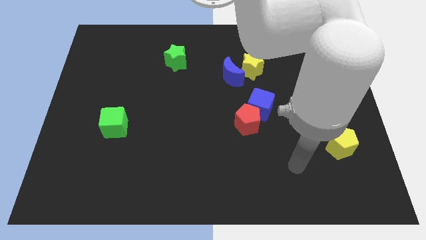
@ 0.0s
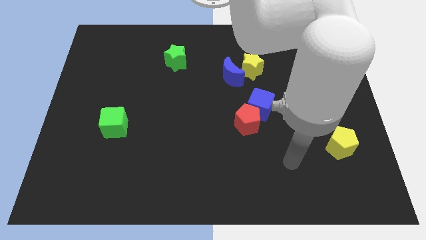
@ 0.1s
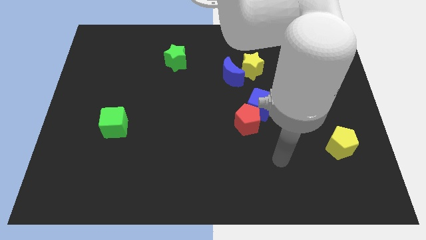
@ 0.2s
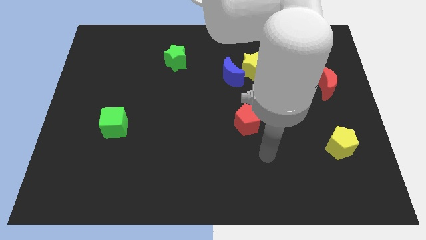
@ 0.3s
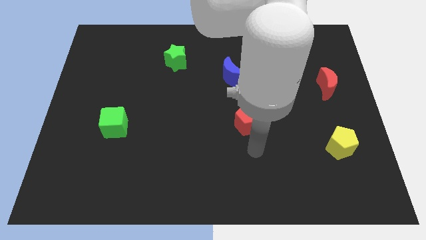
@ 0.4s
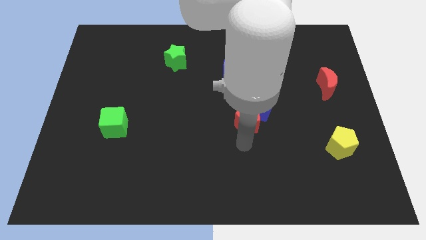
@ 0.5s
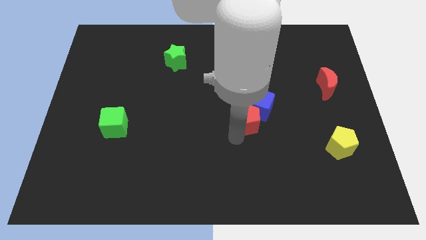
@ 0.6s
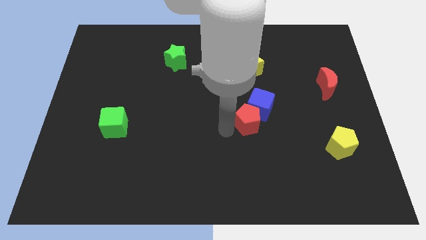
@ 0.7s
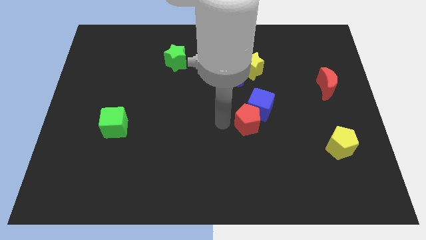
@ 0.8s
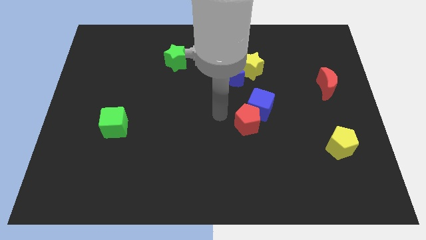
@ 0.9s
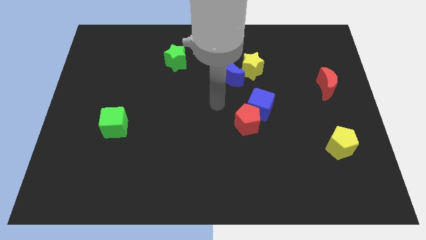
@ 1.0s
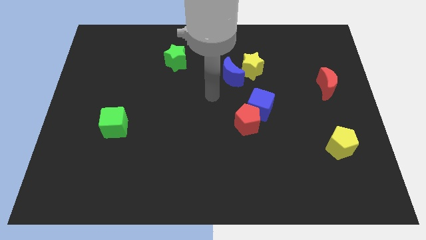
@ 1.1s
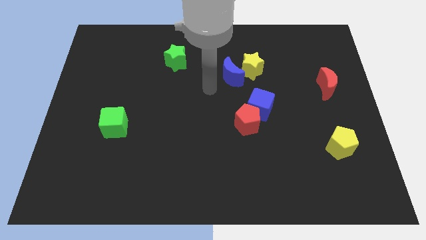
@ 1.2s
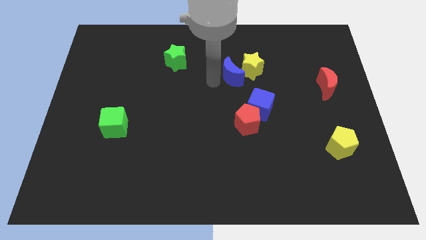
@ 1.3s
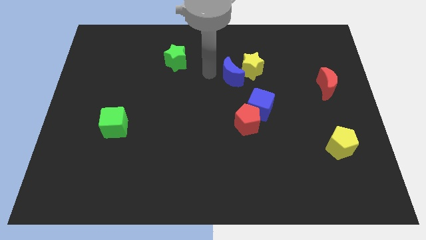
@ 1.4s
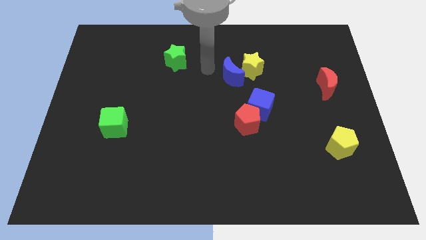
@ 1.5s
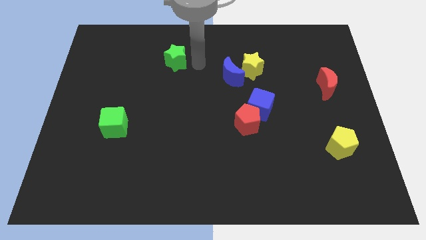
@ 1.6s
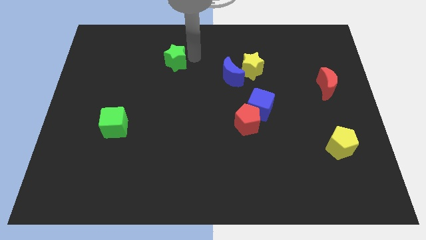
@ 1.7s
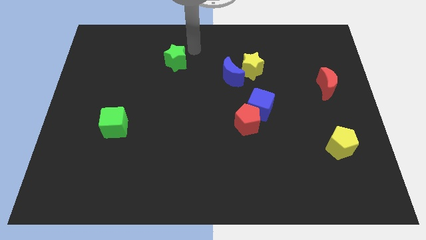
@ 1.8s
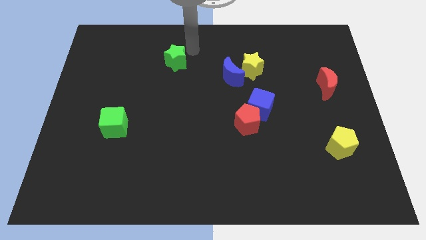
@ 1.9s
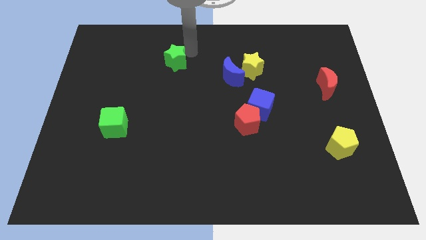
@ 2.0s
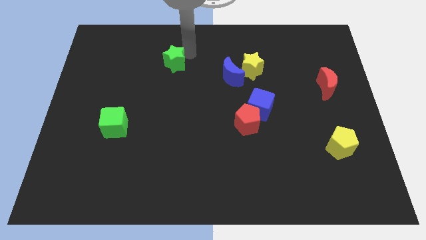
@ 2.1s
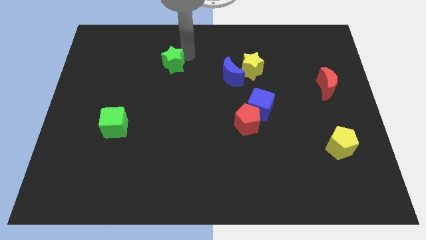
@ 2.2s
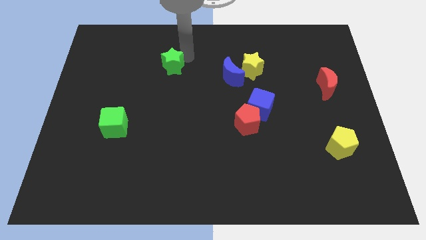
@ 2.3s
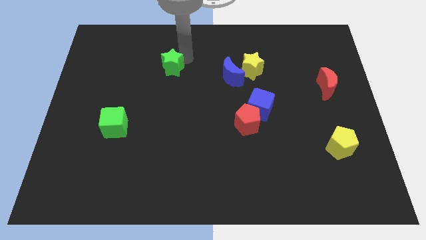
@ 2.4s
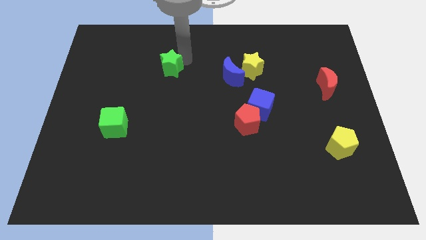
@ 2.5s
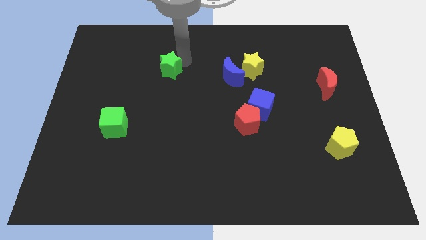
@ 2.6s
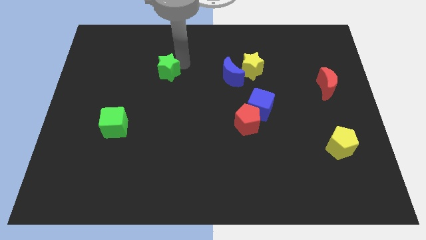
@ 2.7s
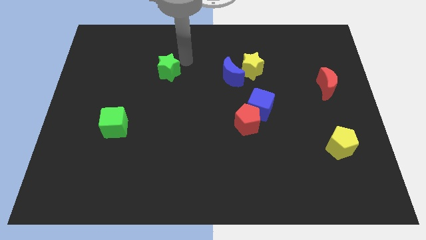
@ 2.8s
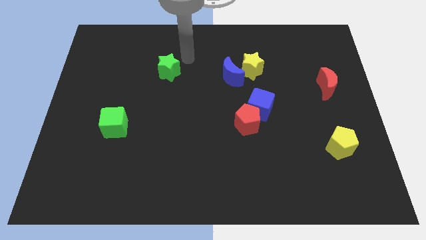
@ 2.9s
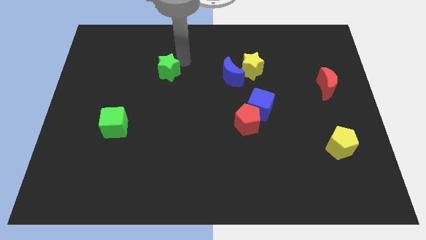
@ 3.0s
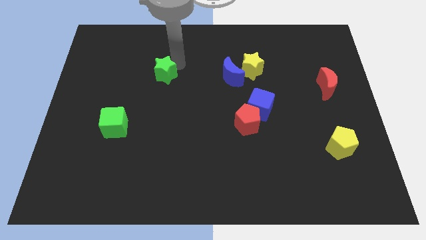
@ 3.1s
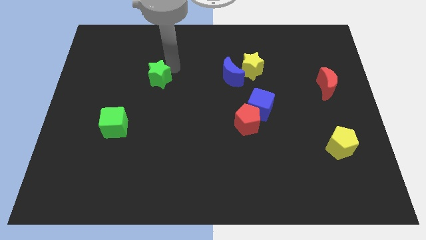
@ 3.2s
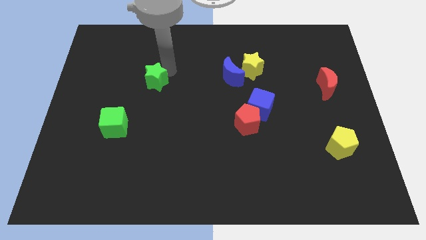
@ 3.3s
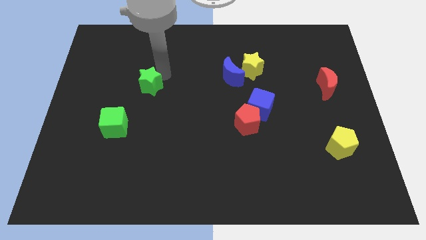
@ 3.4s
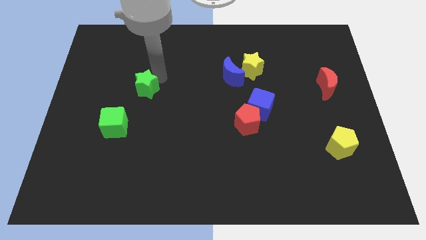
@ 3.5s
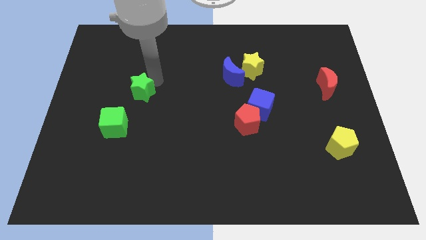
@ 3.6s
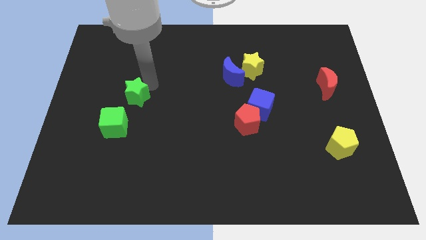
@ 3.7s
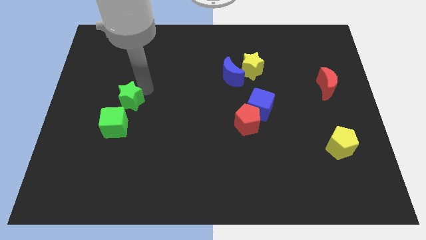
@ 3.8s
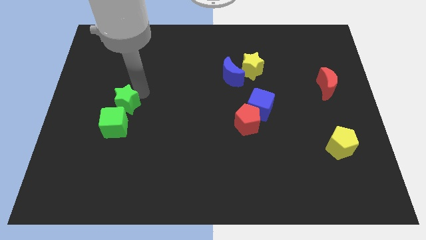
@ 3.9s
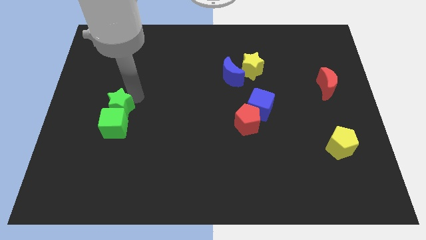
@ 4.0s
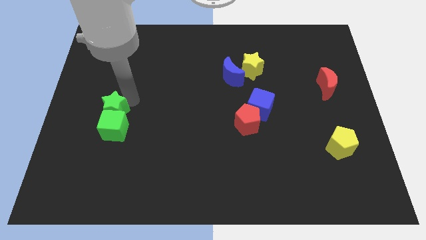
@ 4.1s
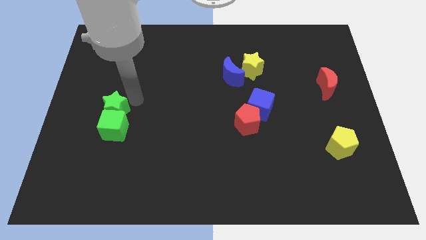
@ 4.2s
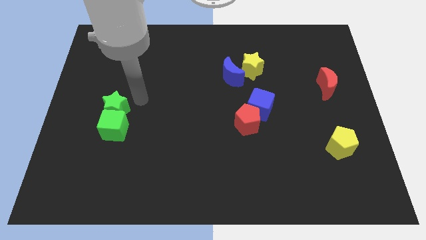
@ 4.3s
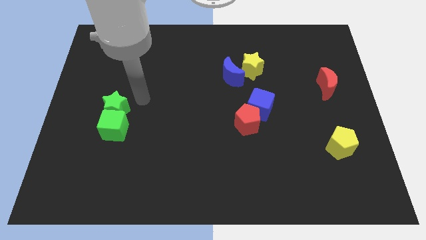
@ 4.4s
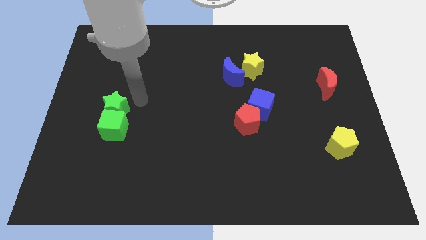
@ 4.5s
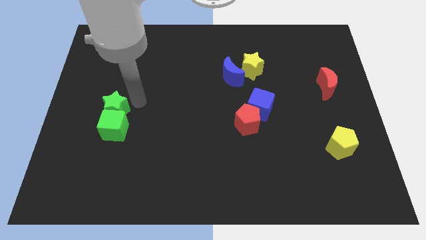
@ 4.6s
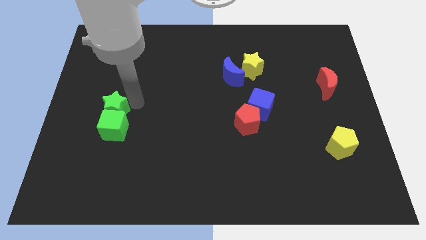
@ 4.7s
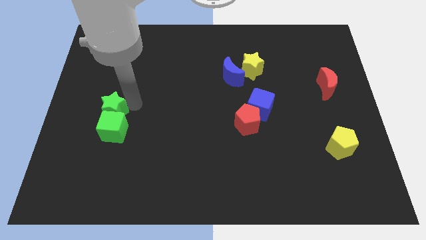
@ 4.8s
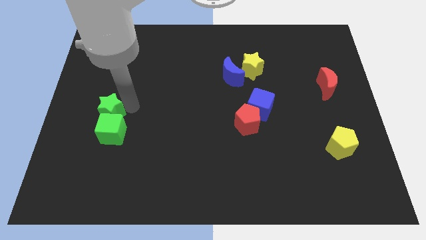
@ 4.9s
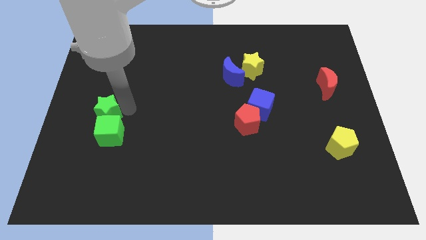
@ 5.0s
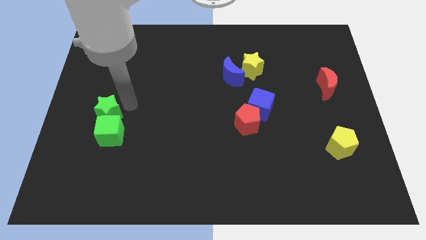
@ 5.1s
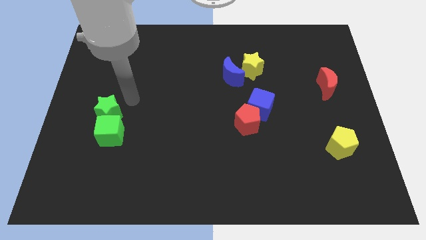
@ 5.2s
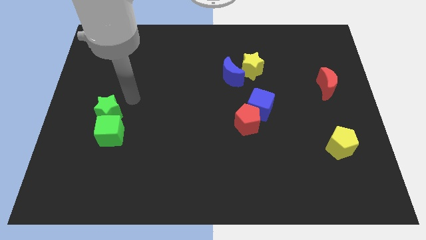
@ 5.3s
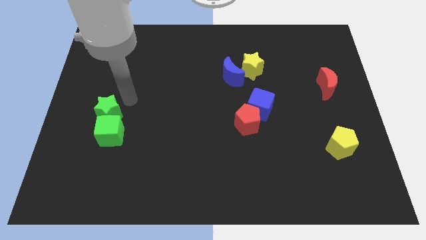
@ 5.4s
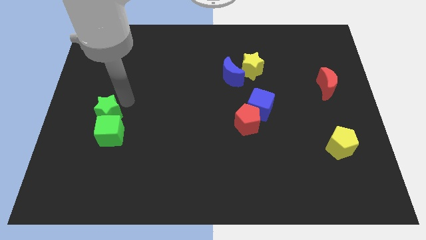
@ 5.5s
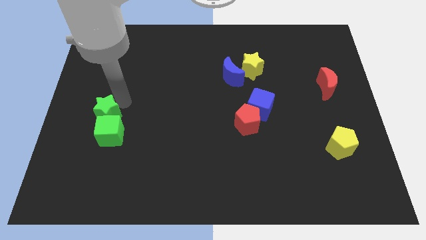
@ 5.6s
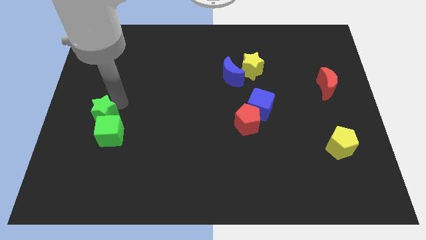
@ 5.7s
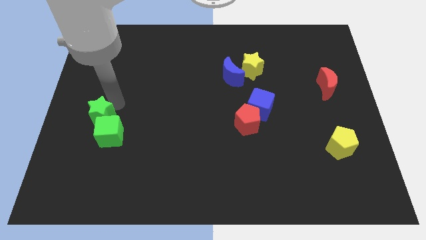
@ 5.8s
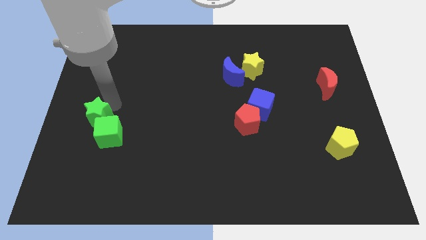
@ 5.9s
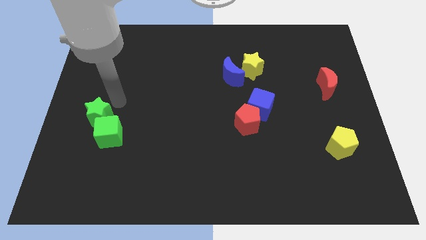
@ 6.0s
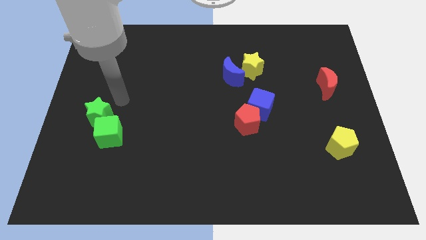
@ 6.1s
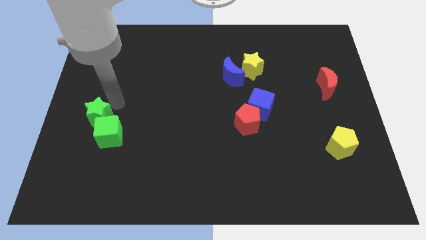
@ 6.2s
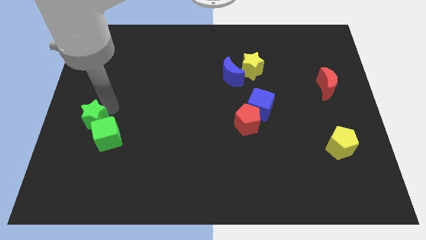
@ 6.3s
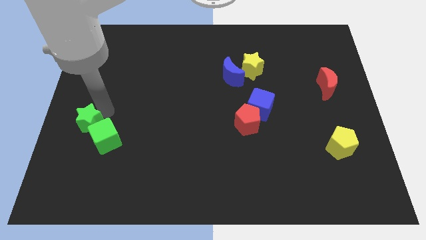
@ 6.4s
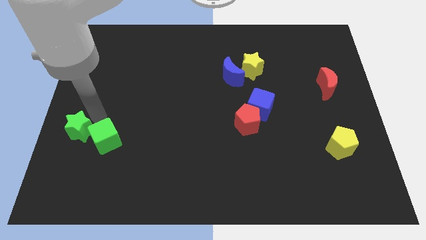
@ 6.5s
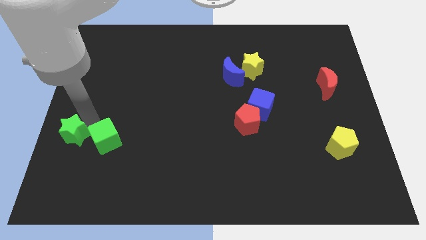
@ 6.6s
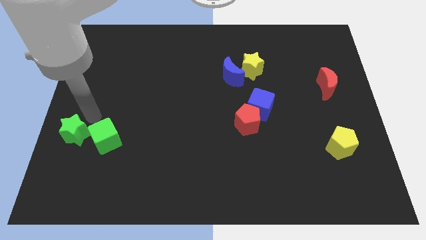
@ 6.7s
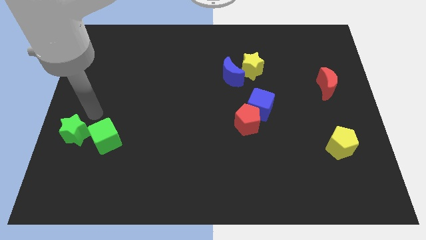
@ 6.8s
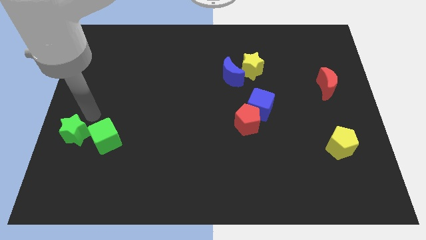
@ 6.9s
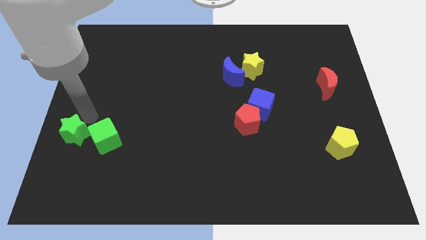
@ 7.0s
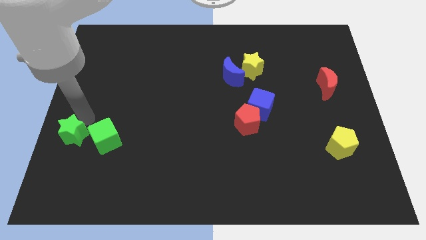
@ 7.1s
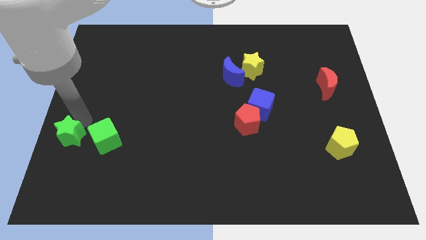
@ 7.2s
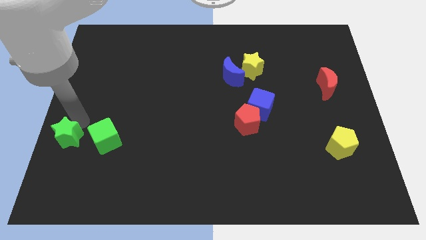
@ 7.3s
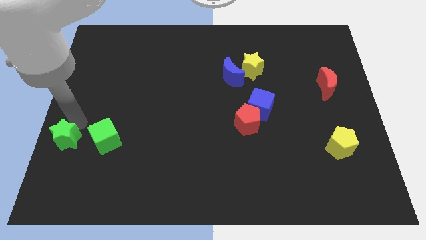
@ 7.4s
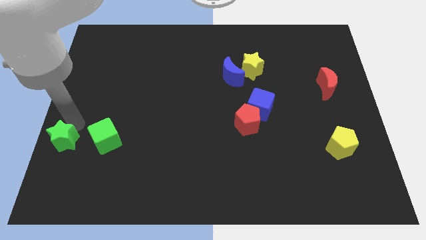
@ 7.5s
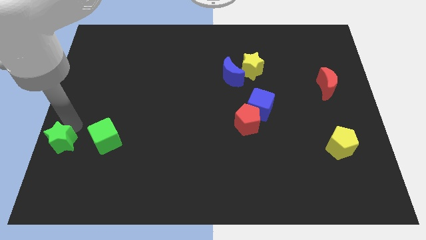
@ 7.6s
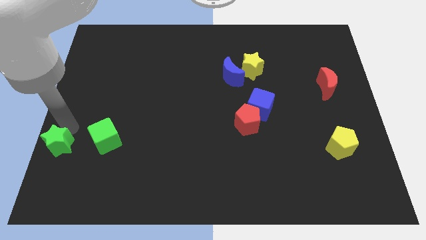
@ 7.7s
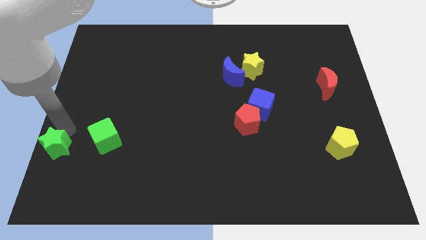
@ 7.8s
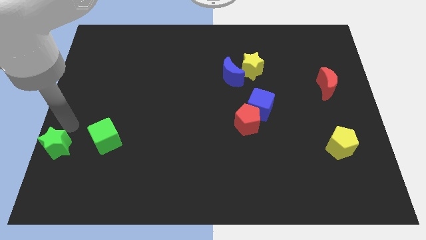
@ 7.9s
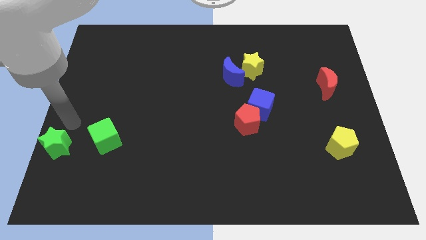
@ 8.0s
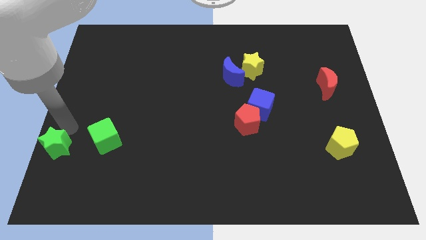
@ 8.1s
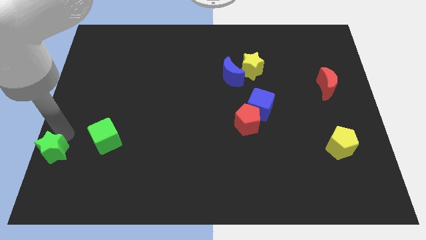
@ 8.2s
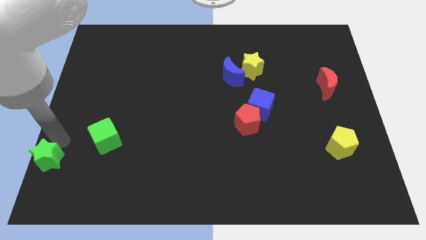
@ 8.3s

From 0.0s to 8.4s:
put the green star to the bottom left corner
